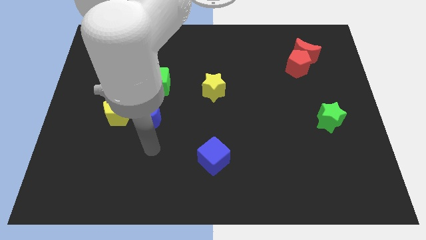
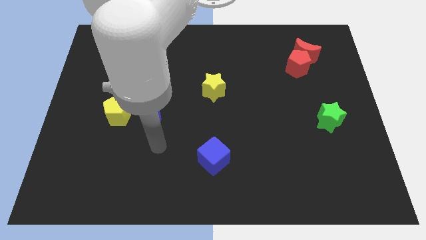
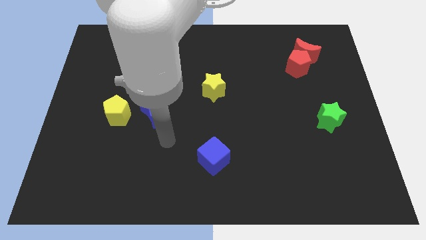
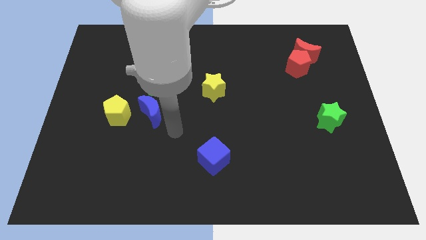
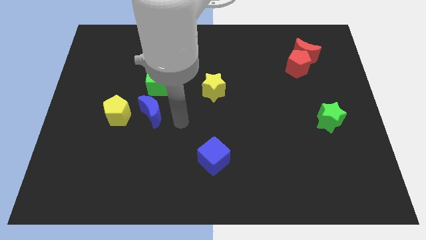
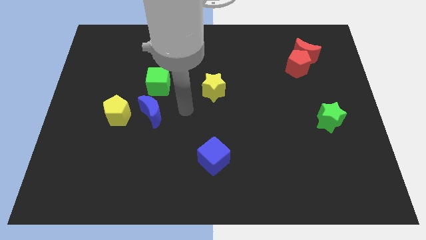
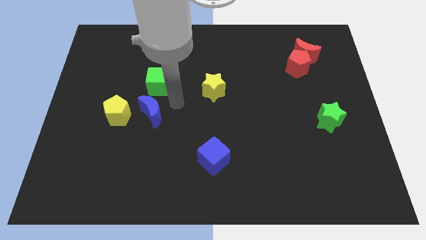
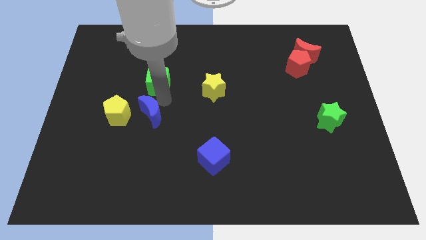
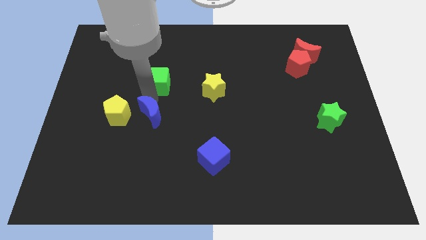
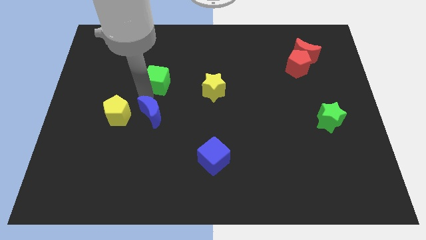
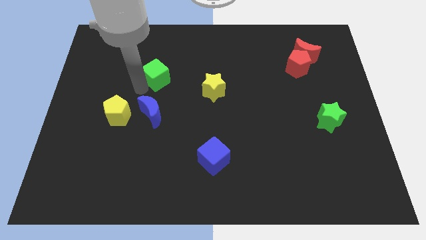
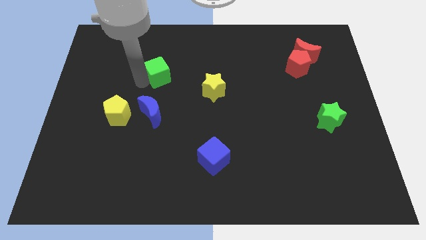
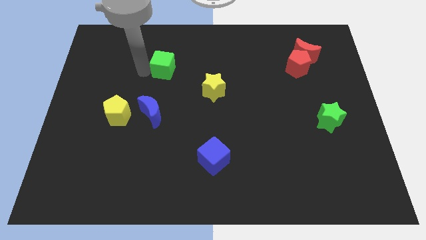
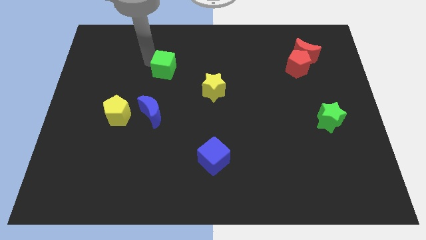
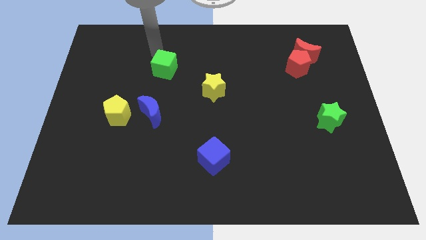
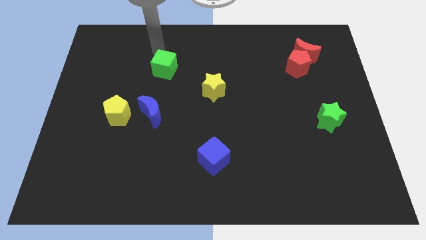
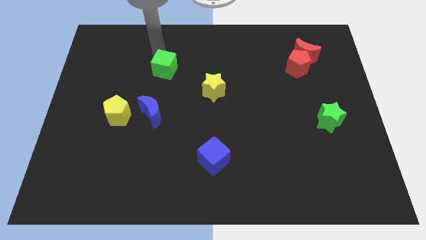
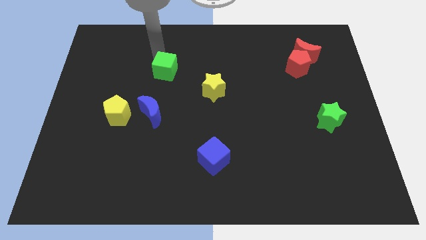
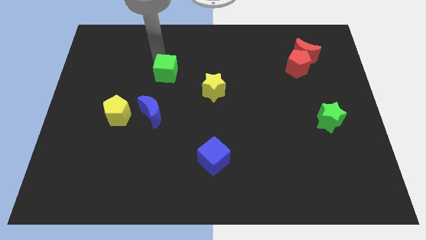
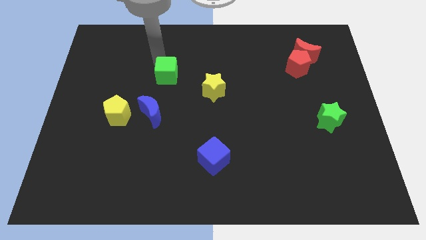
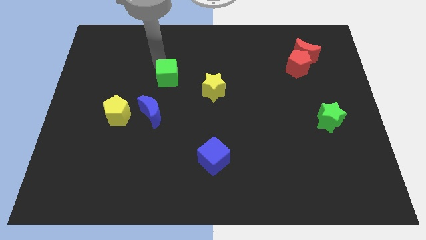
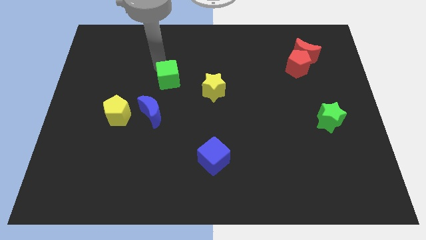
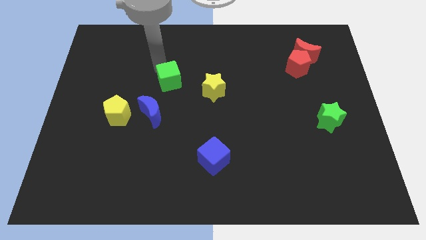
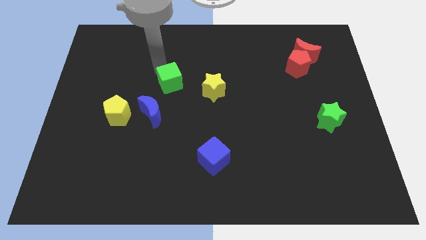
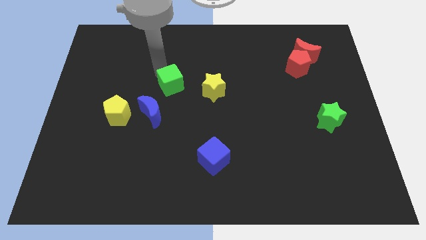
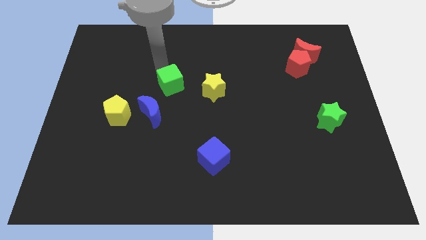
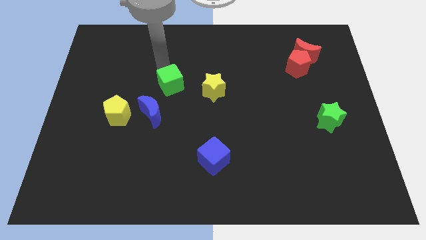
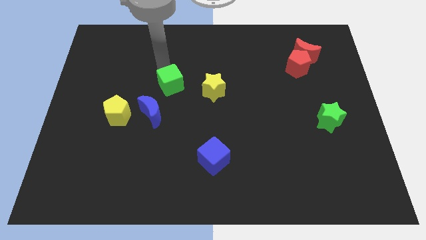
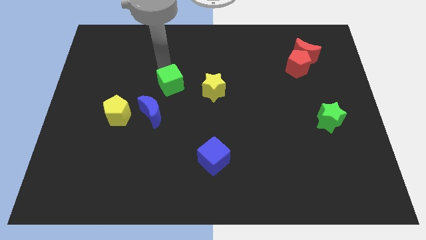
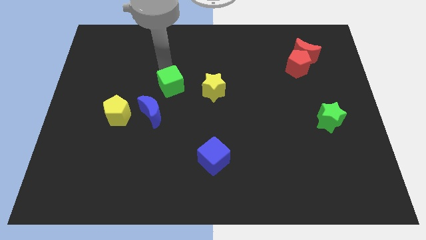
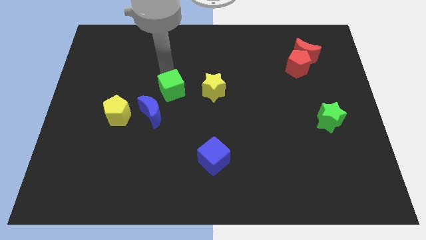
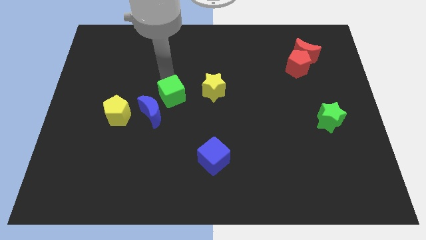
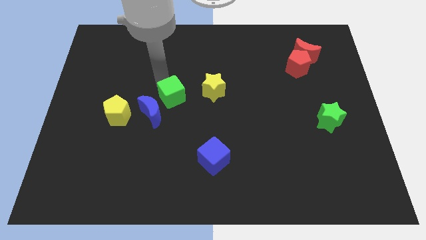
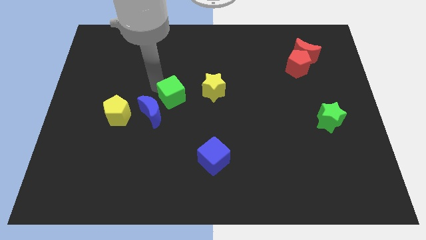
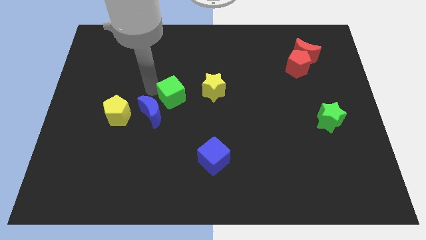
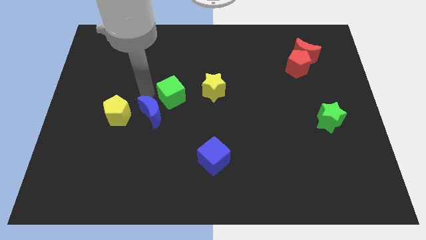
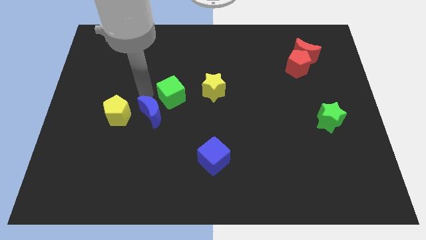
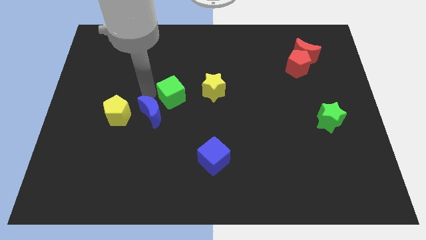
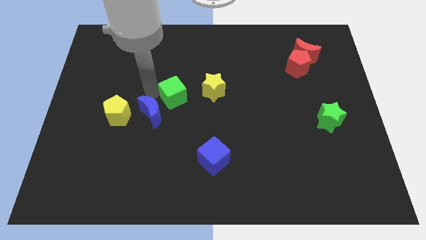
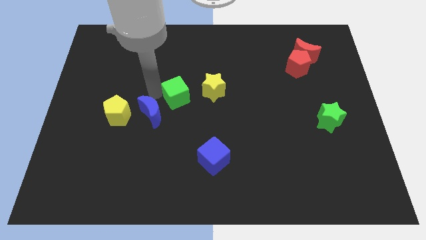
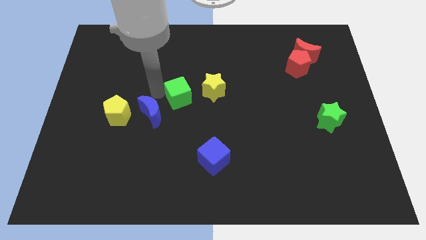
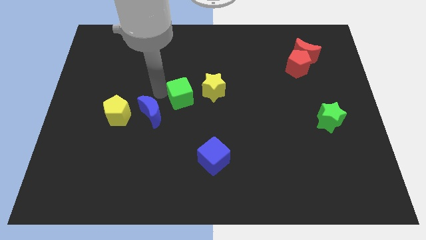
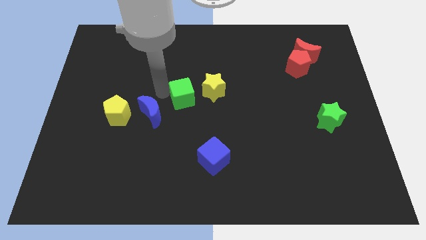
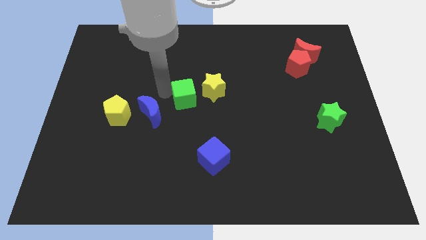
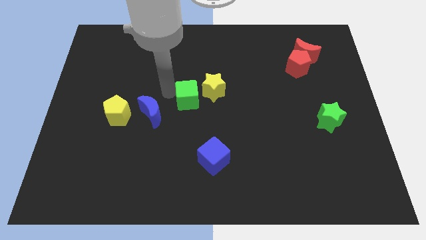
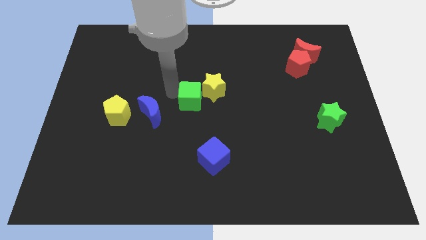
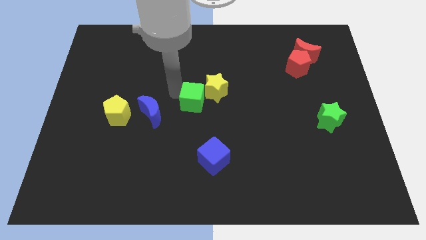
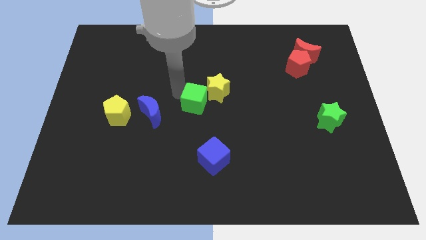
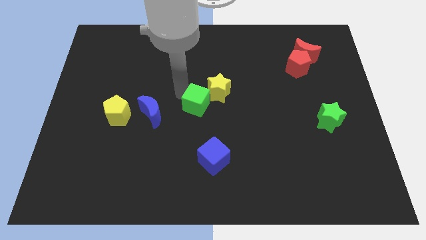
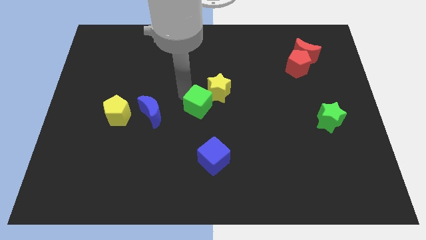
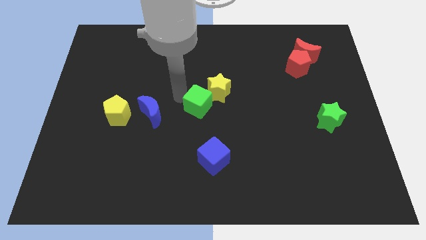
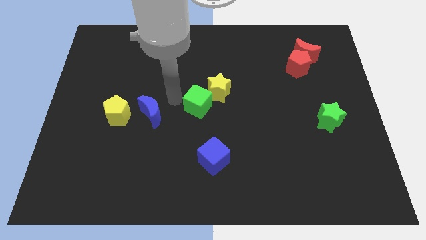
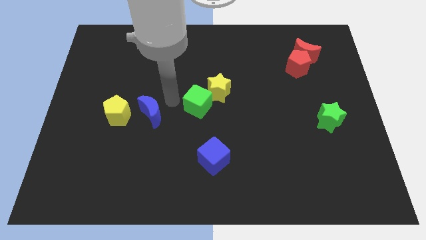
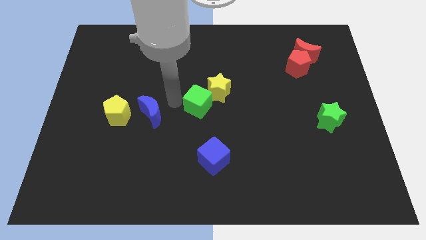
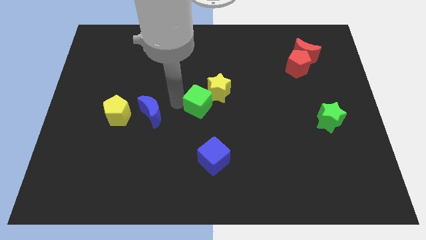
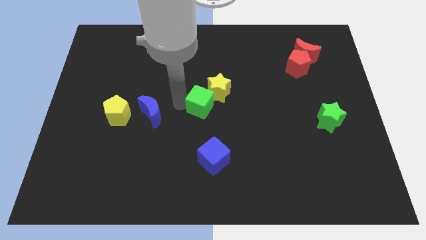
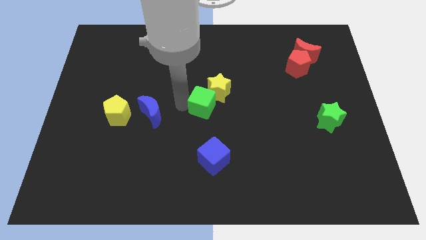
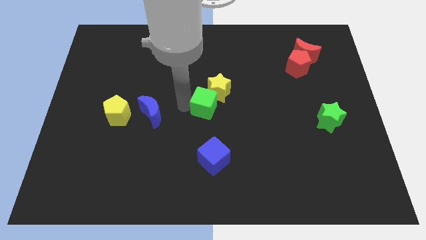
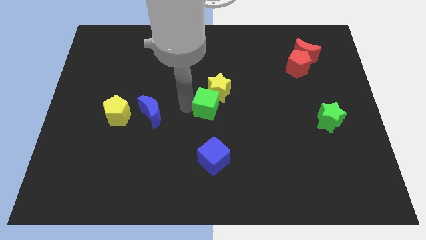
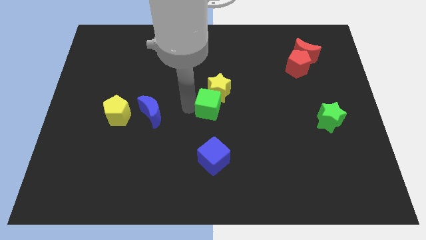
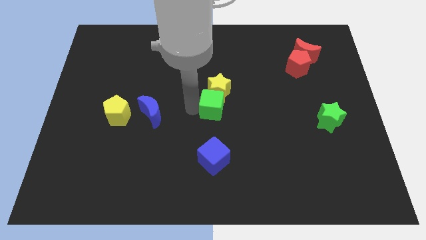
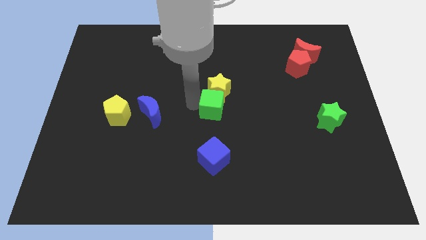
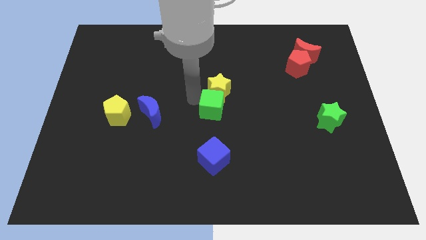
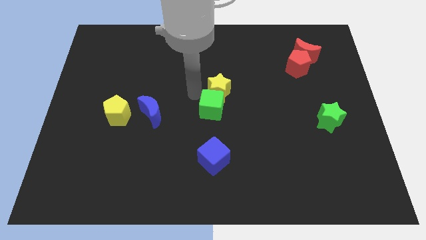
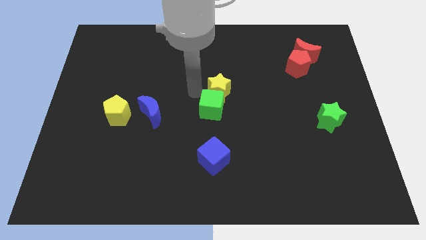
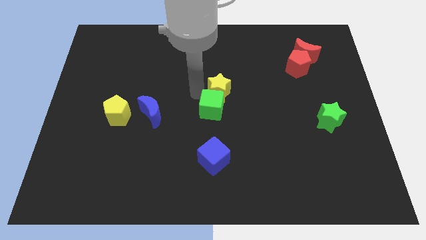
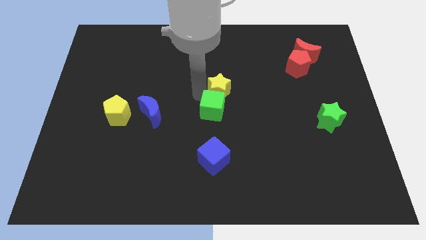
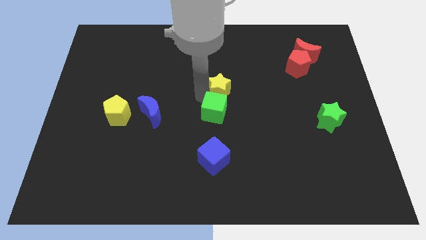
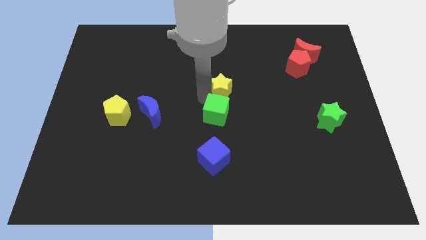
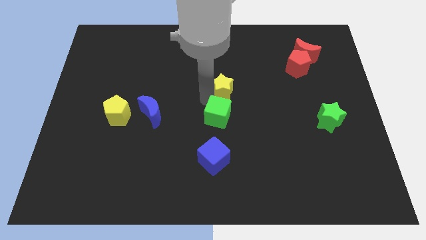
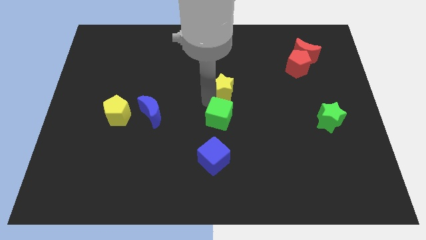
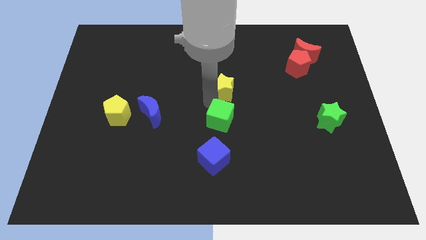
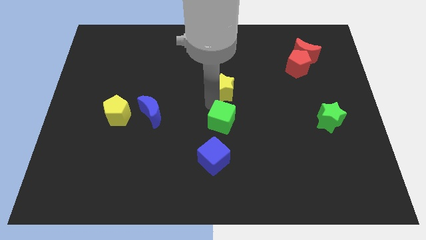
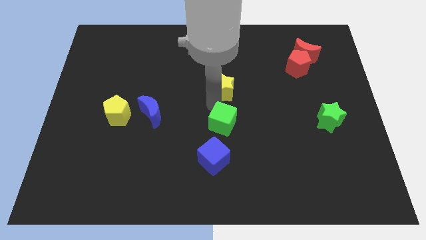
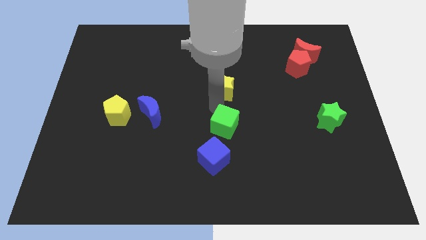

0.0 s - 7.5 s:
move the green cube down and right diagonally

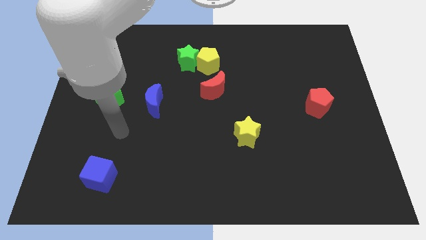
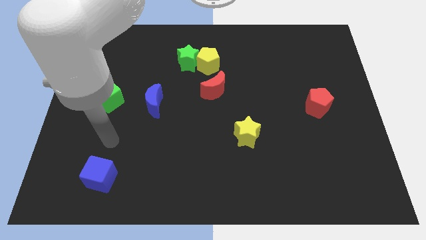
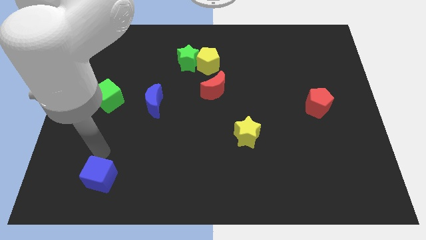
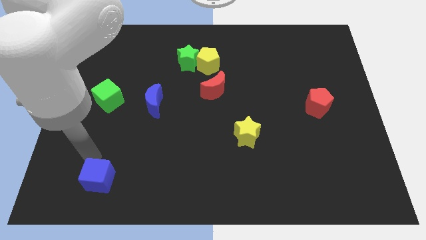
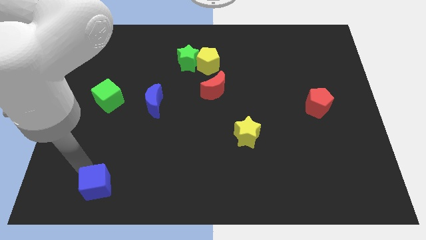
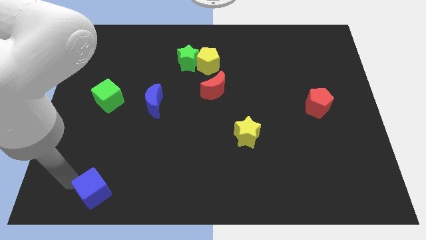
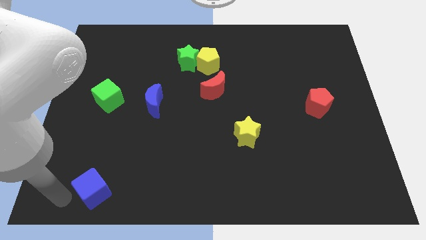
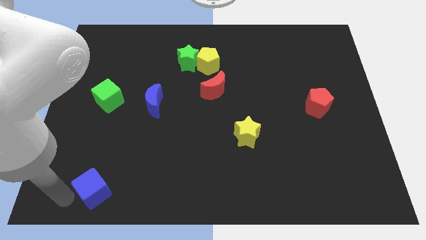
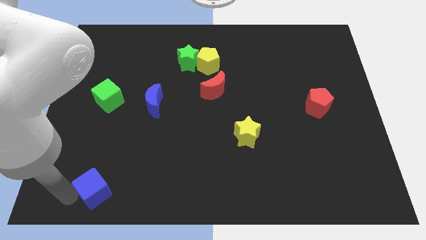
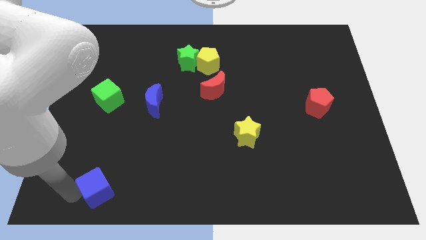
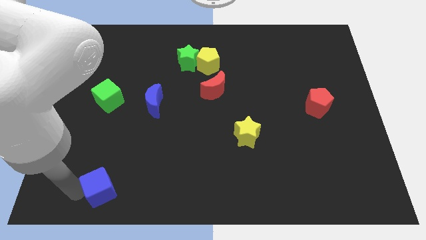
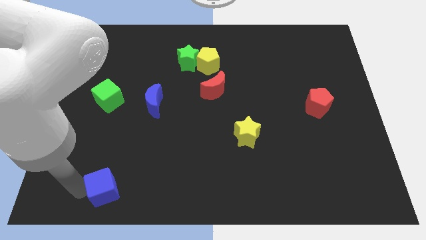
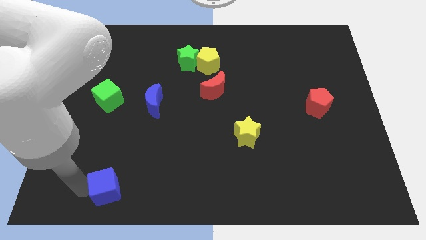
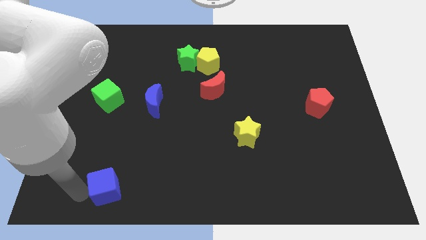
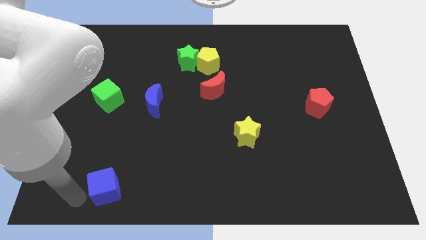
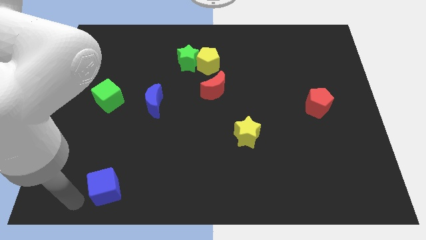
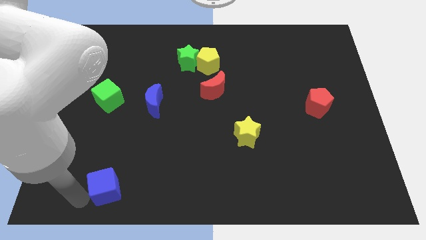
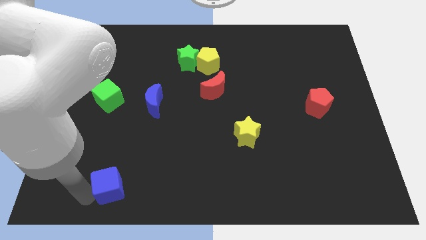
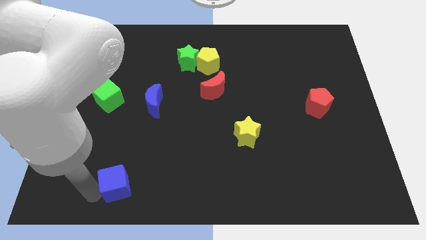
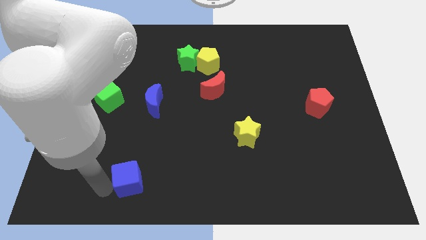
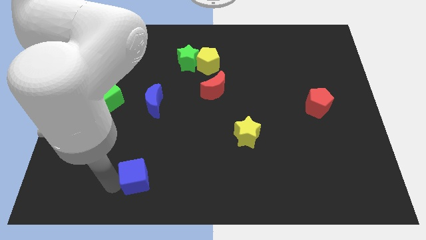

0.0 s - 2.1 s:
move the blue cube a little bit to the right
